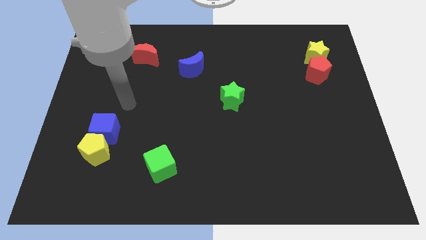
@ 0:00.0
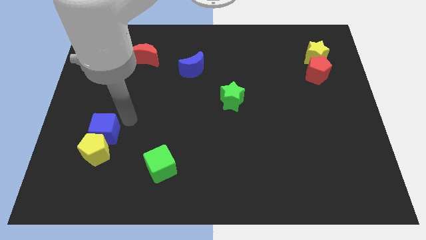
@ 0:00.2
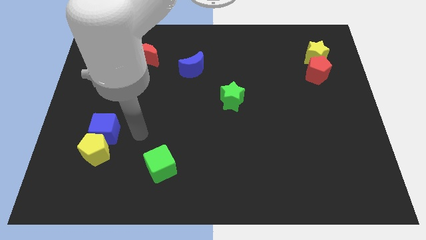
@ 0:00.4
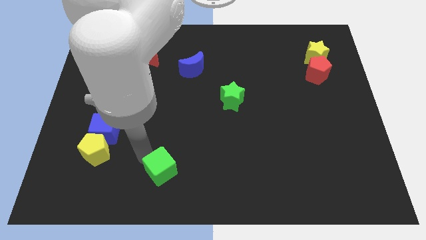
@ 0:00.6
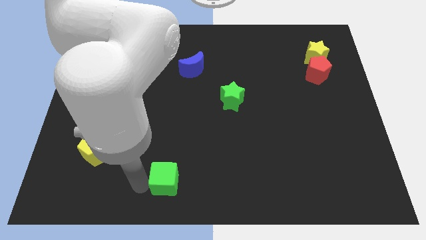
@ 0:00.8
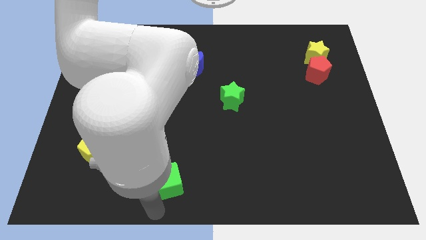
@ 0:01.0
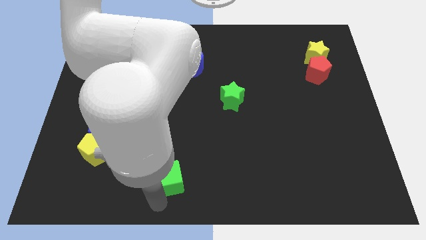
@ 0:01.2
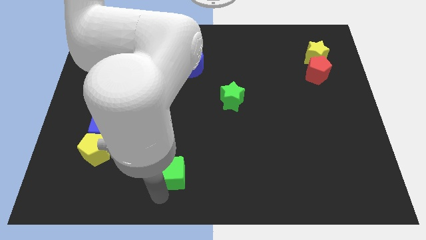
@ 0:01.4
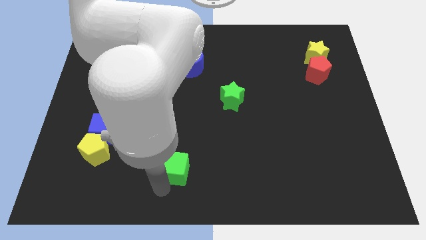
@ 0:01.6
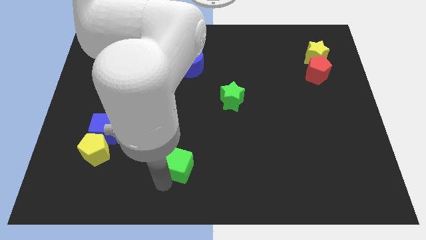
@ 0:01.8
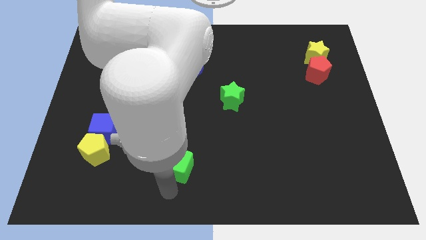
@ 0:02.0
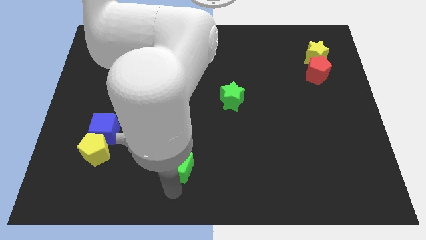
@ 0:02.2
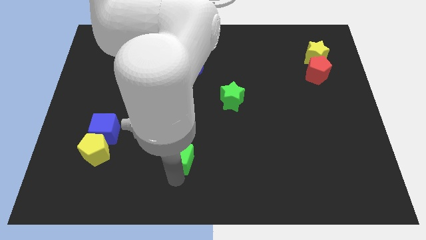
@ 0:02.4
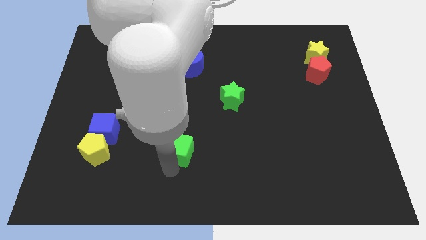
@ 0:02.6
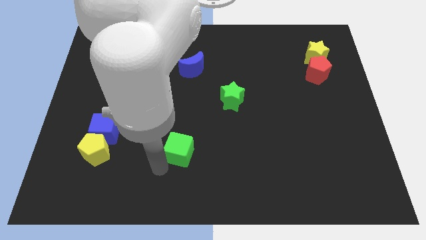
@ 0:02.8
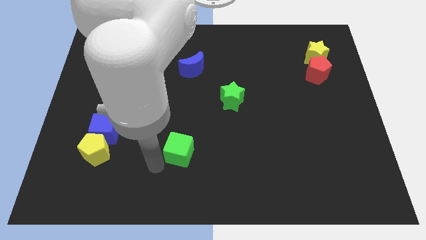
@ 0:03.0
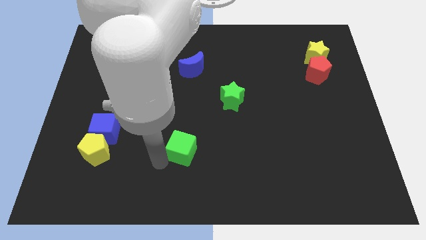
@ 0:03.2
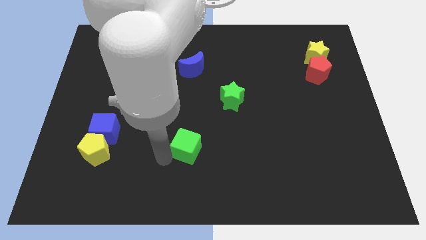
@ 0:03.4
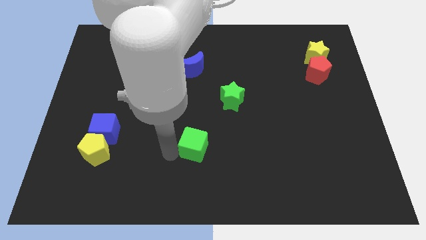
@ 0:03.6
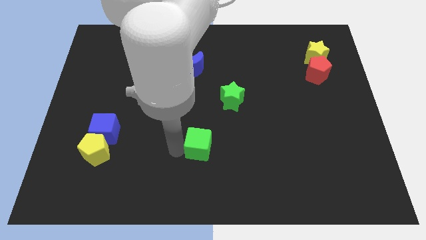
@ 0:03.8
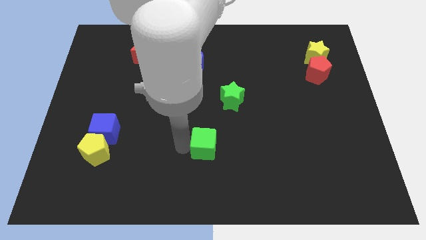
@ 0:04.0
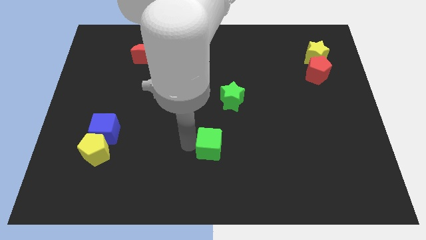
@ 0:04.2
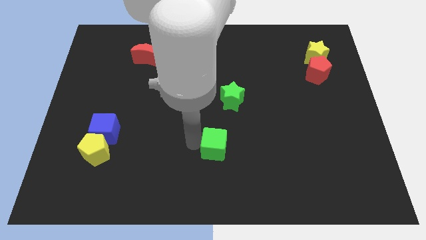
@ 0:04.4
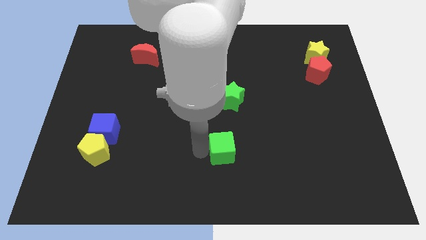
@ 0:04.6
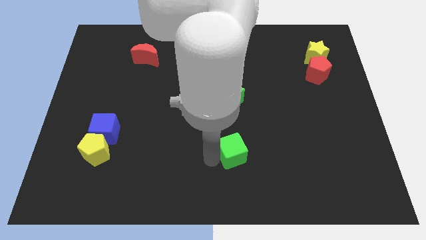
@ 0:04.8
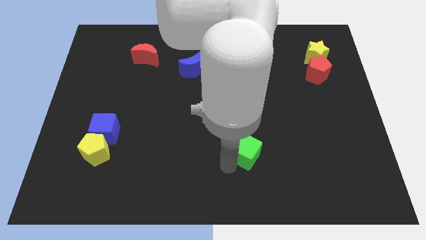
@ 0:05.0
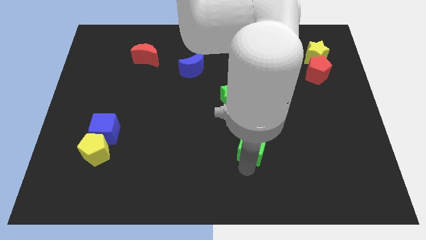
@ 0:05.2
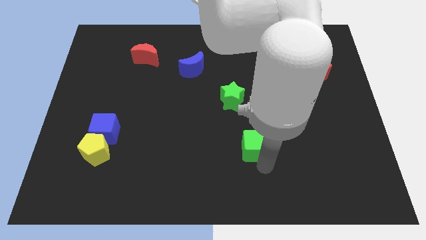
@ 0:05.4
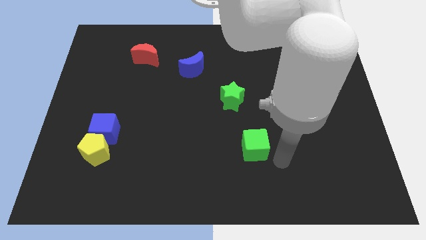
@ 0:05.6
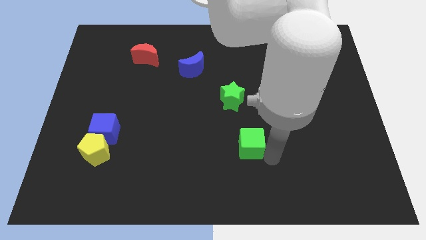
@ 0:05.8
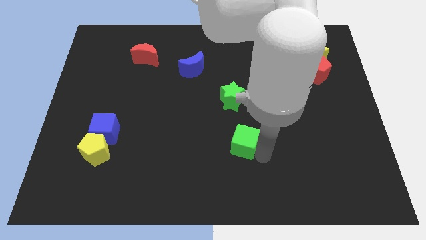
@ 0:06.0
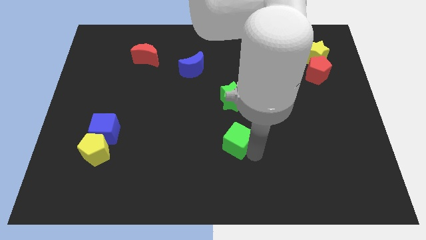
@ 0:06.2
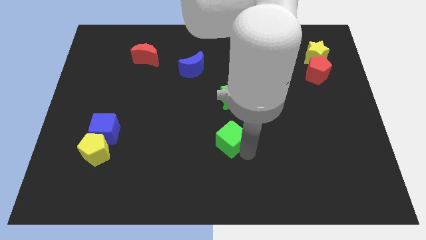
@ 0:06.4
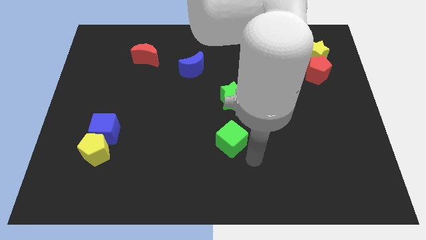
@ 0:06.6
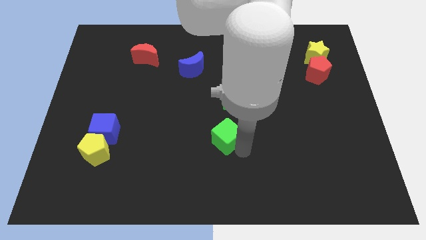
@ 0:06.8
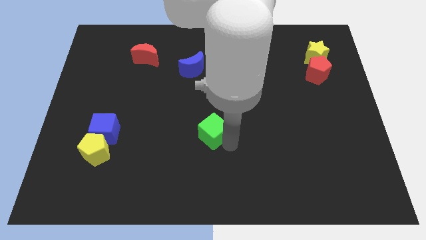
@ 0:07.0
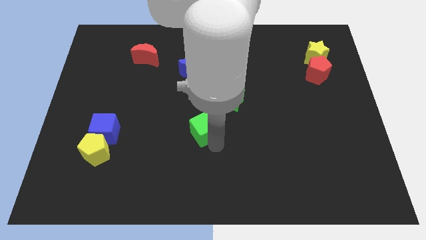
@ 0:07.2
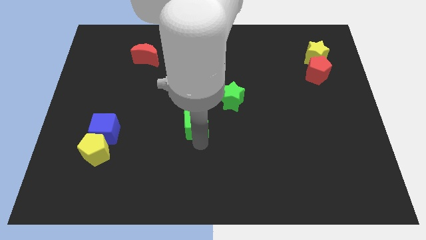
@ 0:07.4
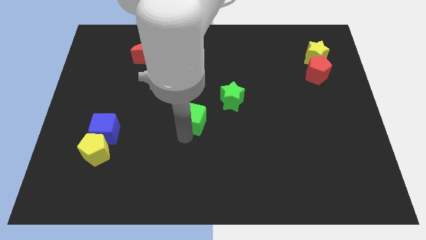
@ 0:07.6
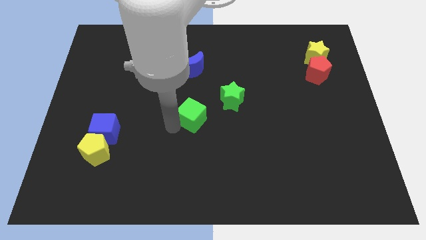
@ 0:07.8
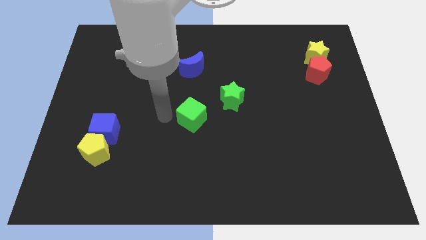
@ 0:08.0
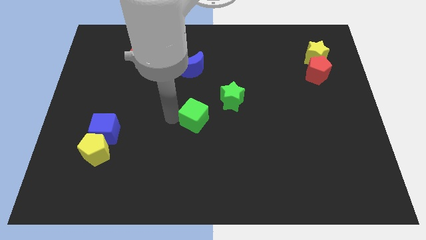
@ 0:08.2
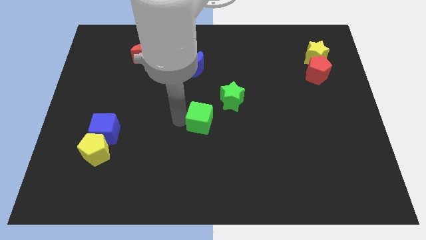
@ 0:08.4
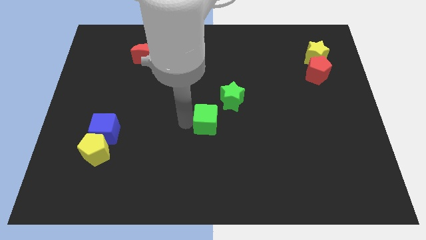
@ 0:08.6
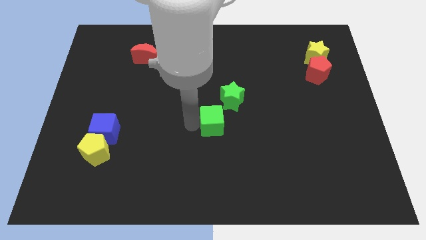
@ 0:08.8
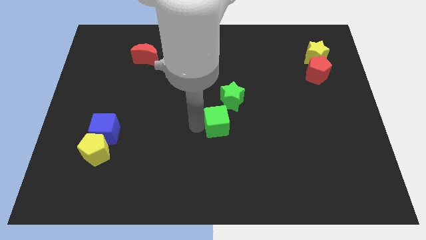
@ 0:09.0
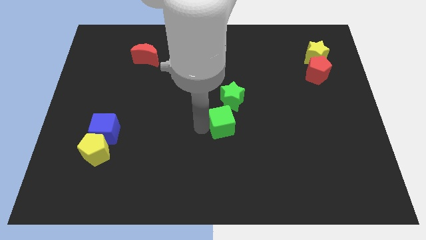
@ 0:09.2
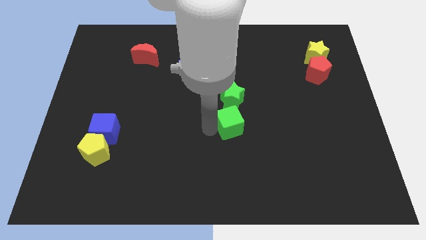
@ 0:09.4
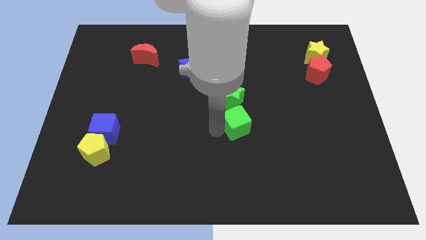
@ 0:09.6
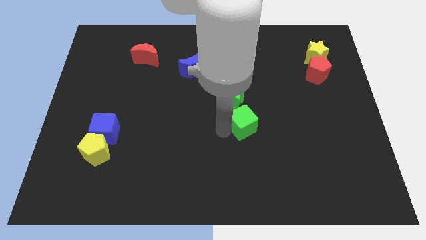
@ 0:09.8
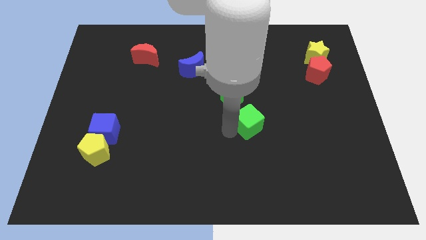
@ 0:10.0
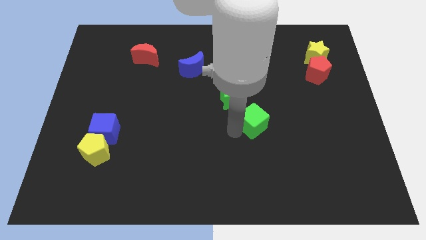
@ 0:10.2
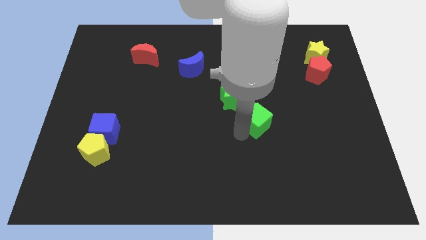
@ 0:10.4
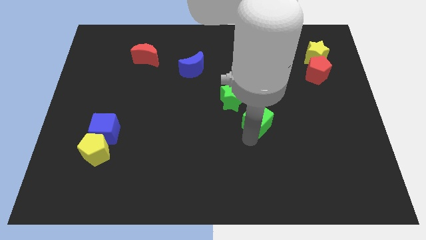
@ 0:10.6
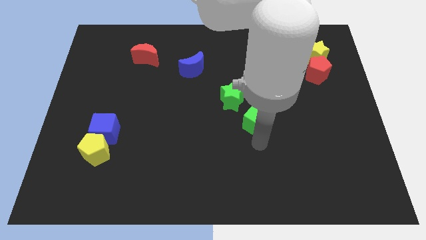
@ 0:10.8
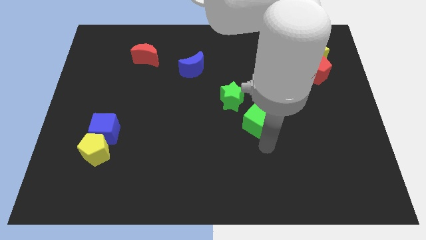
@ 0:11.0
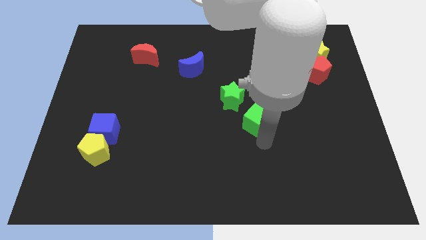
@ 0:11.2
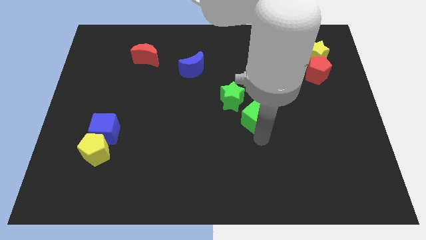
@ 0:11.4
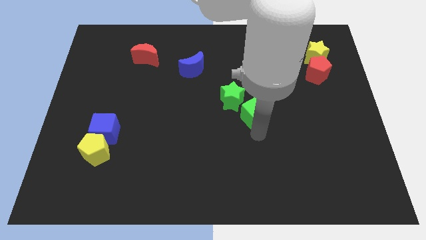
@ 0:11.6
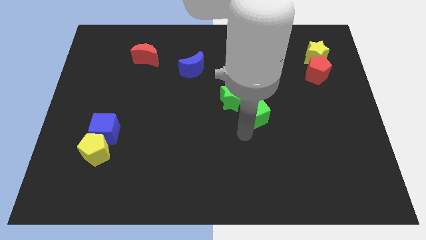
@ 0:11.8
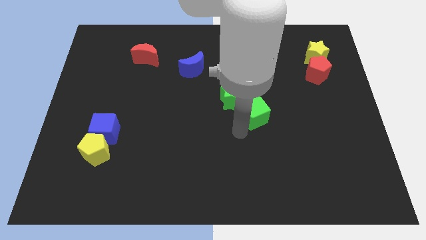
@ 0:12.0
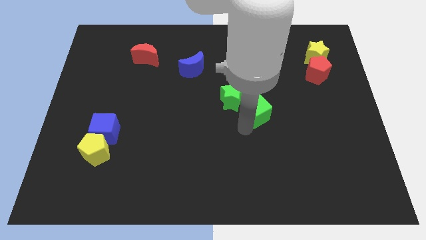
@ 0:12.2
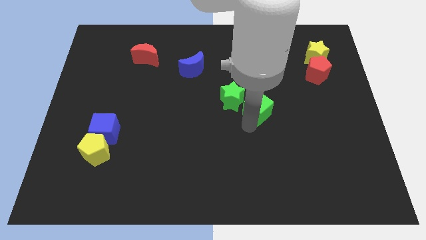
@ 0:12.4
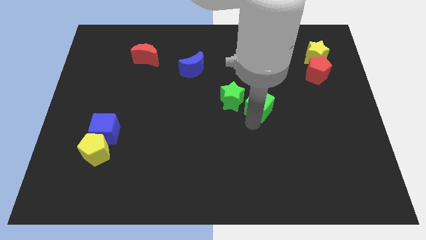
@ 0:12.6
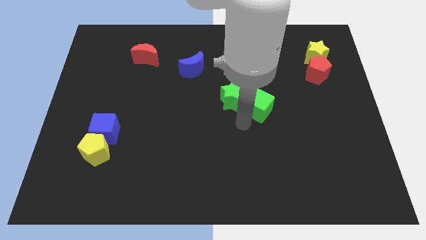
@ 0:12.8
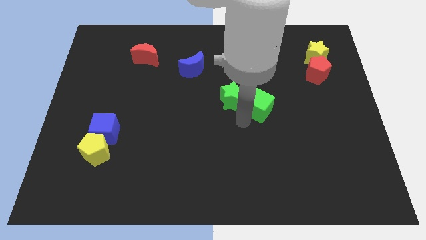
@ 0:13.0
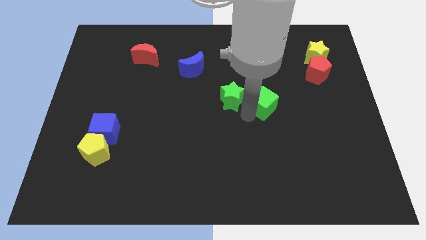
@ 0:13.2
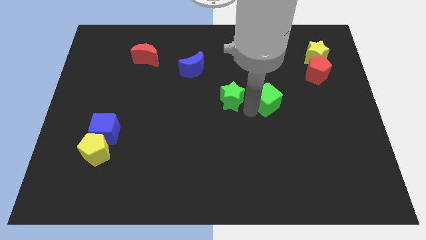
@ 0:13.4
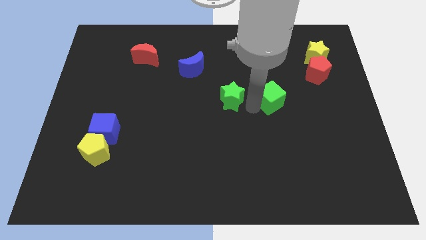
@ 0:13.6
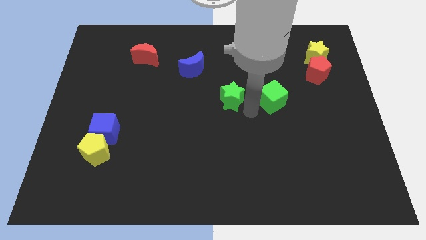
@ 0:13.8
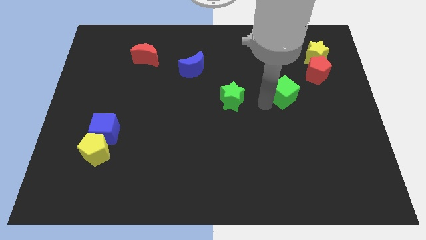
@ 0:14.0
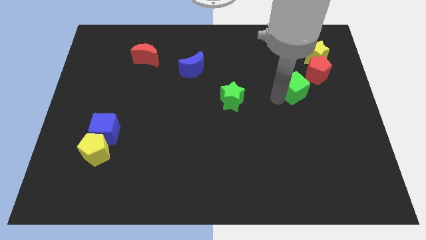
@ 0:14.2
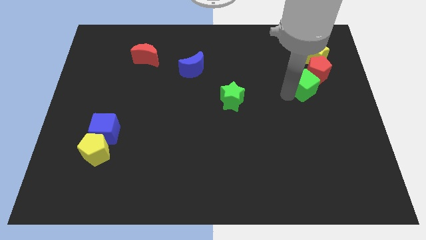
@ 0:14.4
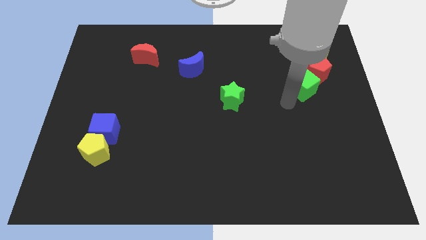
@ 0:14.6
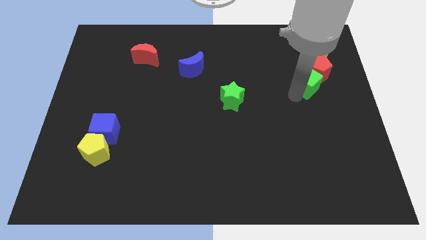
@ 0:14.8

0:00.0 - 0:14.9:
slide the green cube close to the red pentagon
